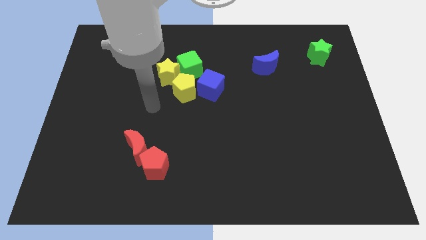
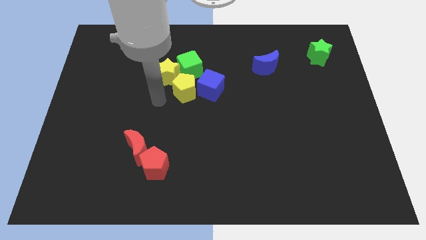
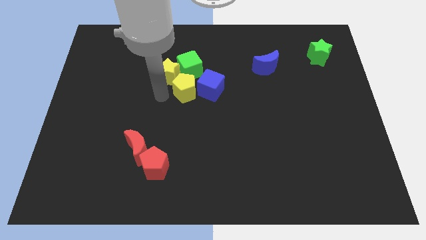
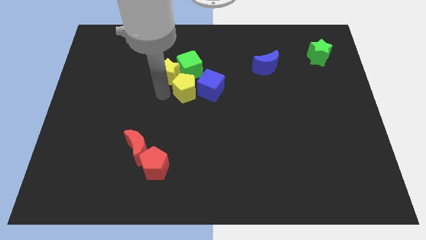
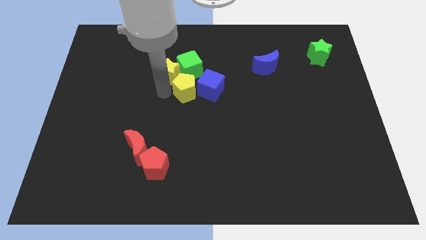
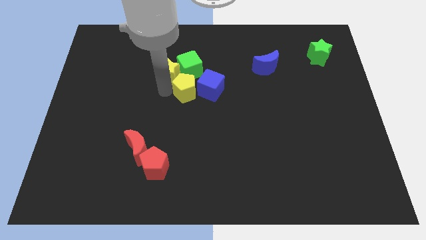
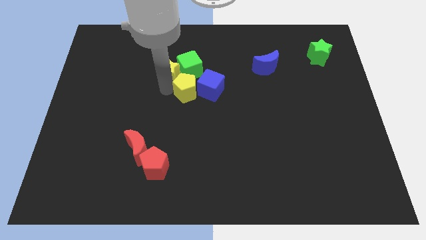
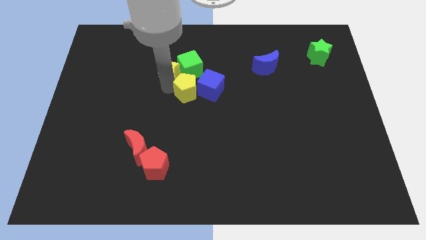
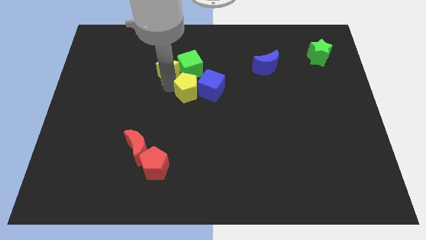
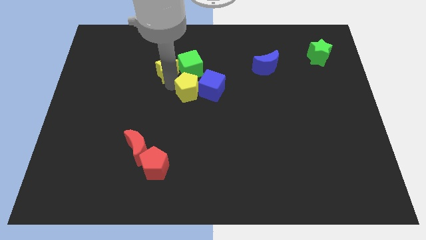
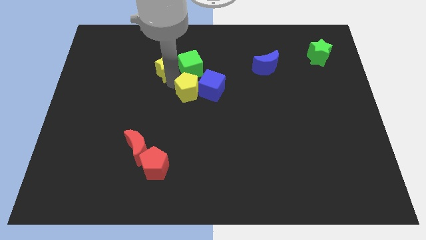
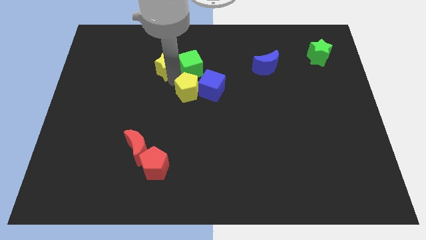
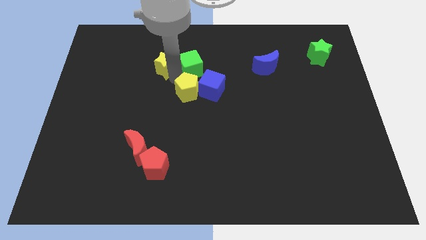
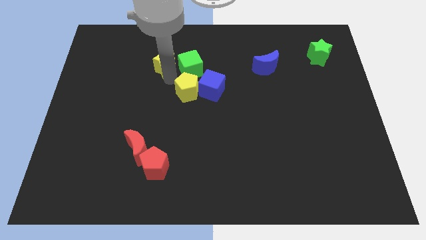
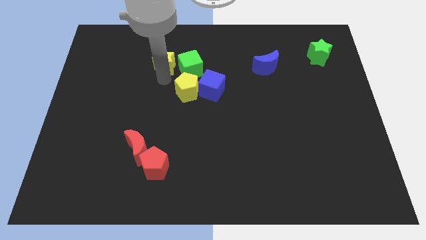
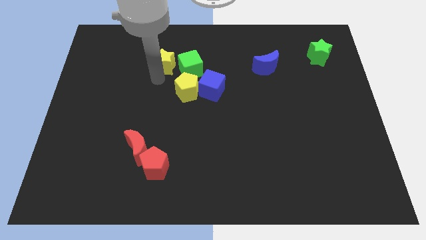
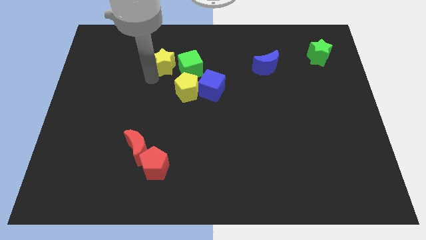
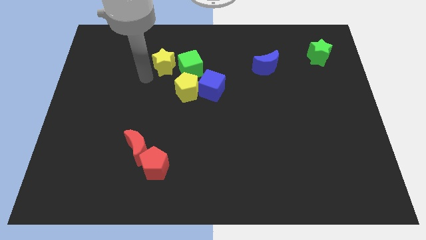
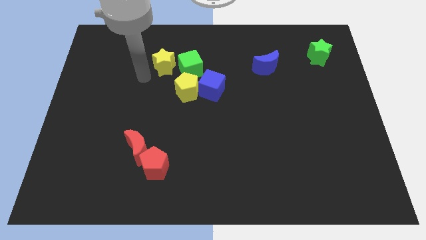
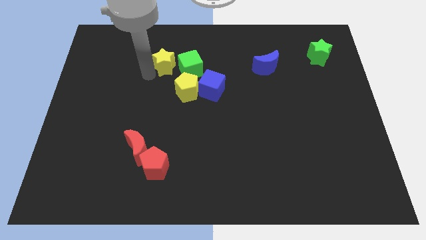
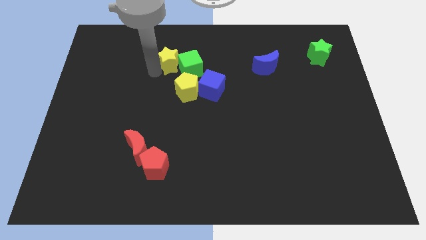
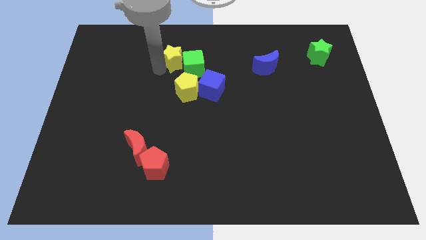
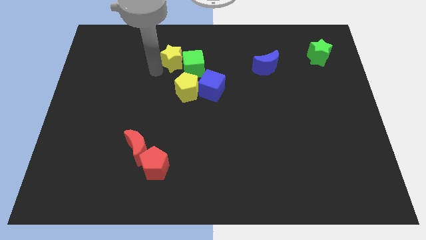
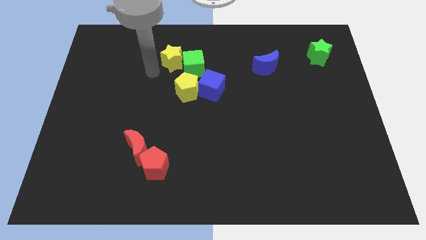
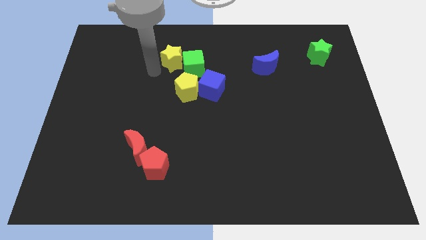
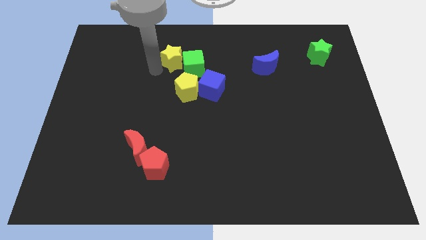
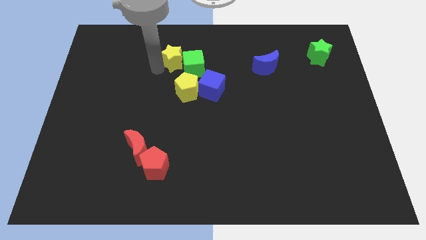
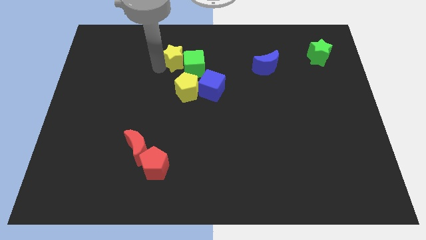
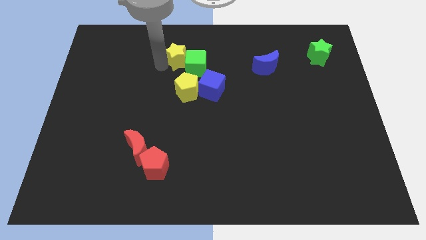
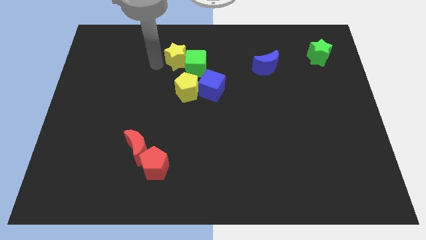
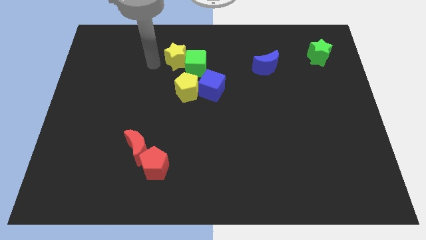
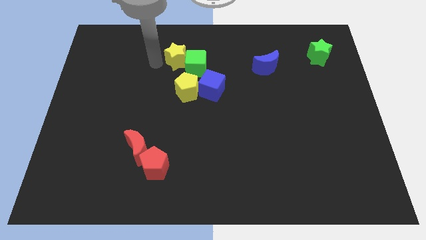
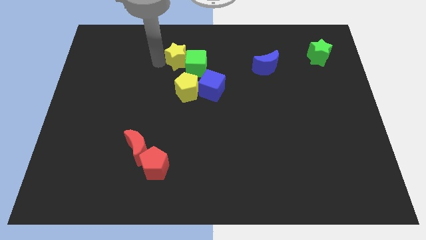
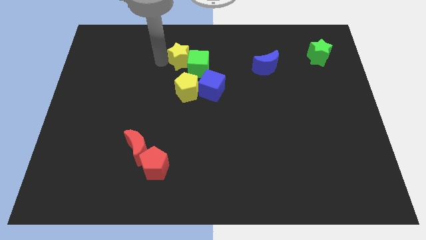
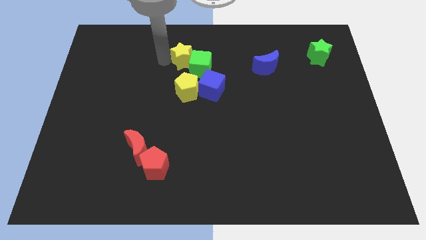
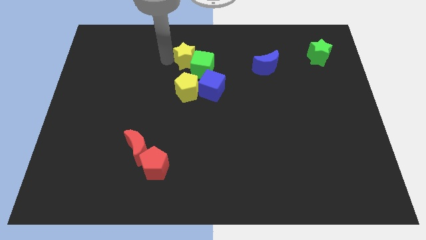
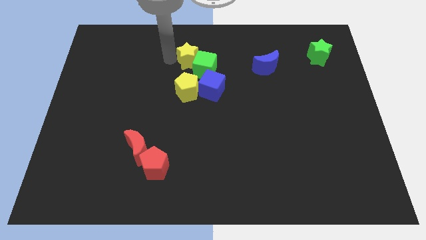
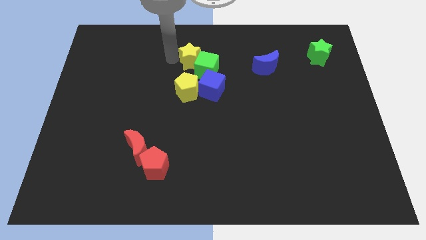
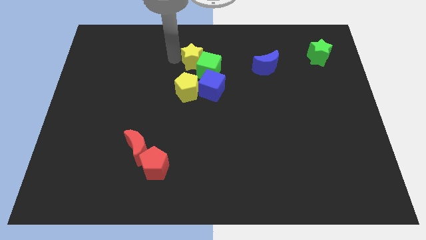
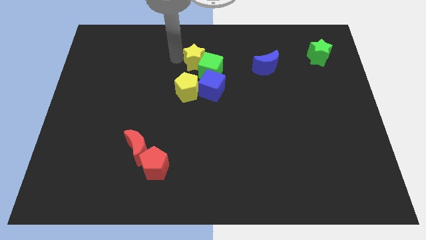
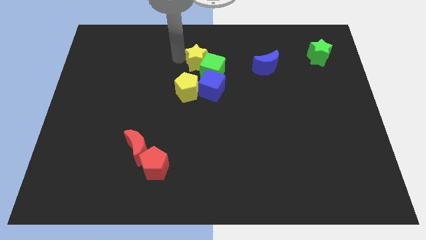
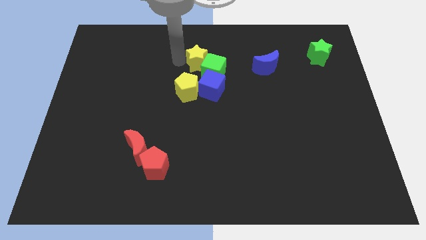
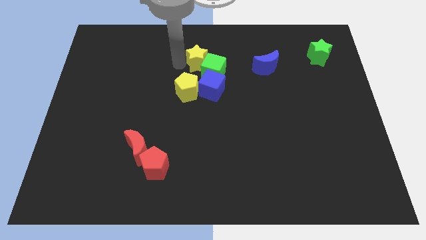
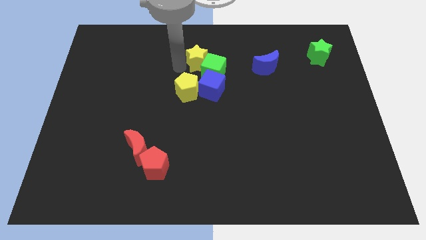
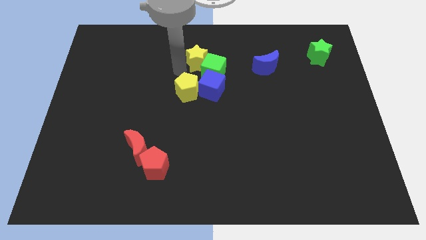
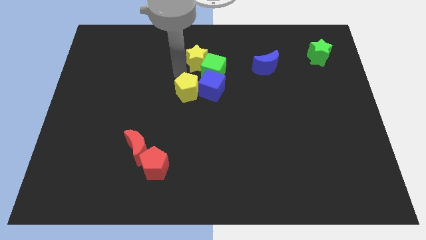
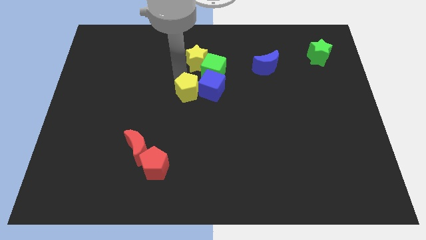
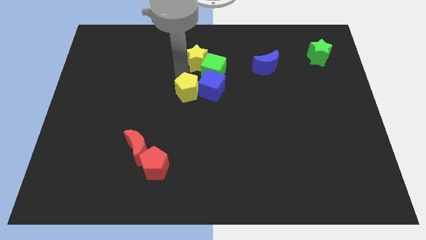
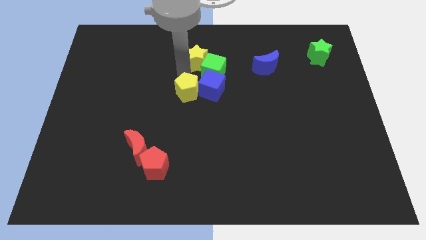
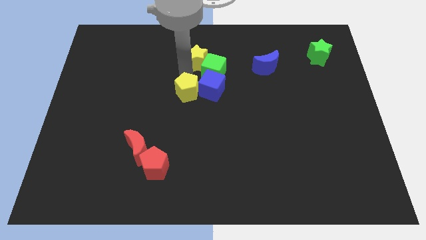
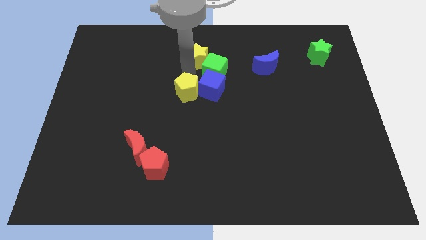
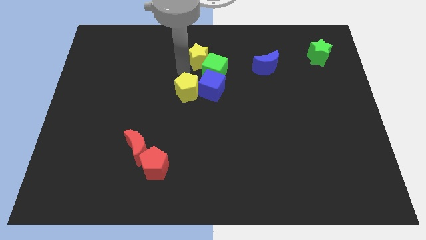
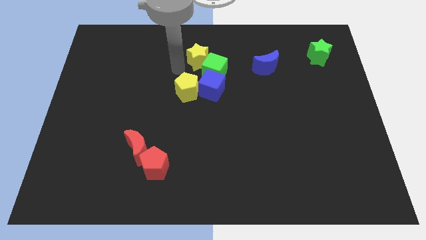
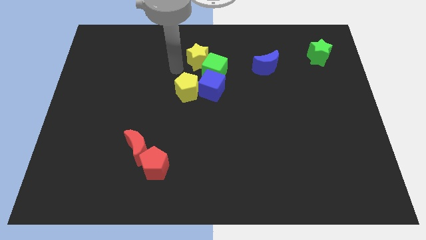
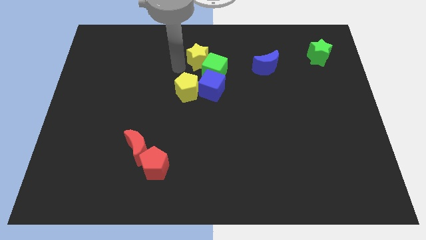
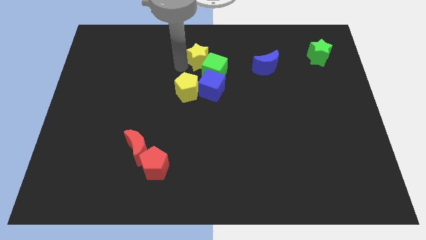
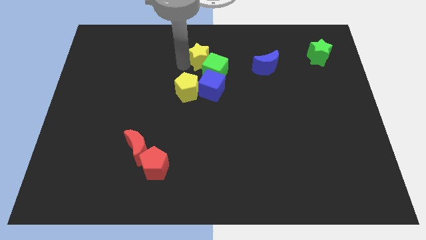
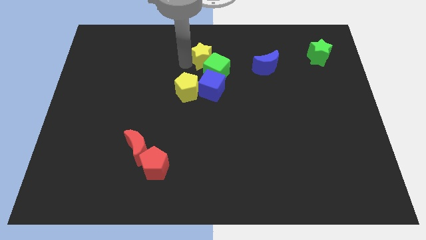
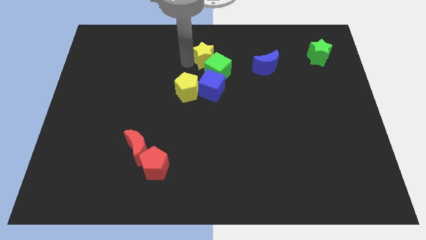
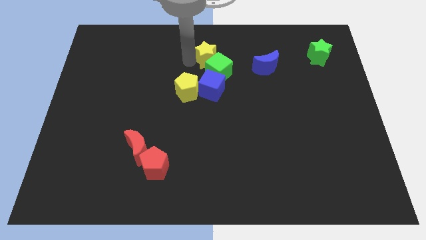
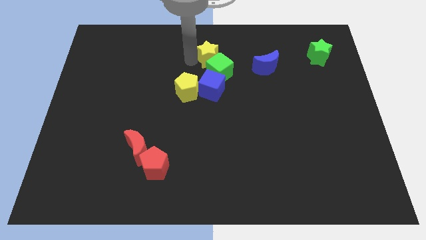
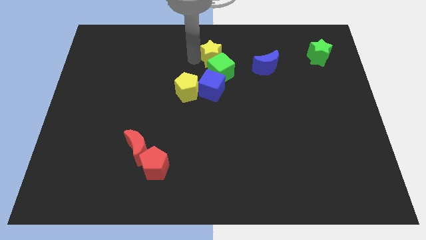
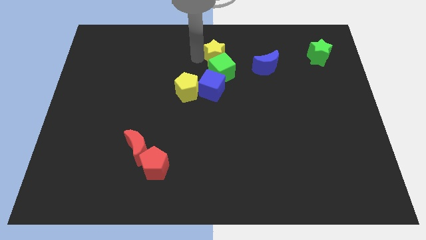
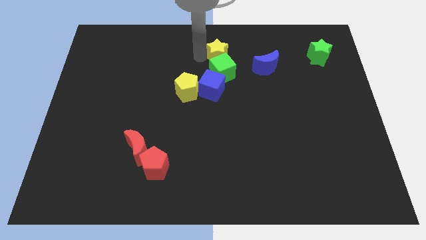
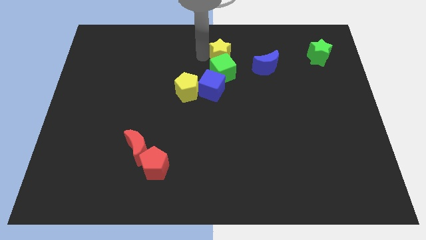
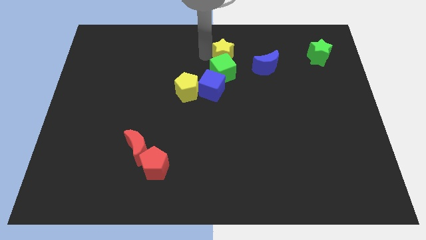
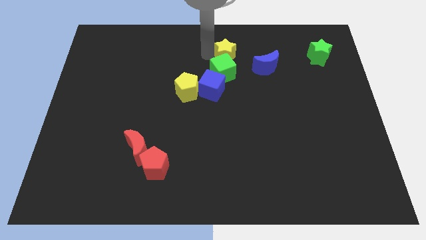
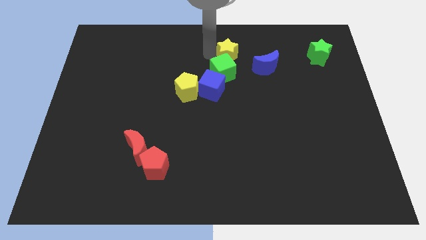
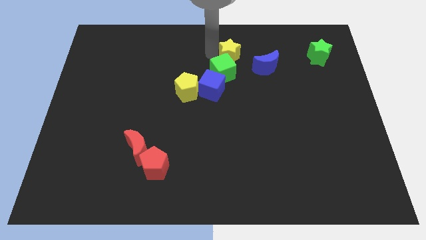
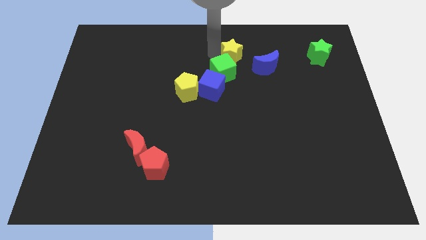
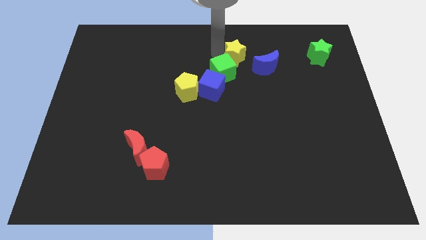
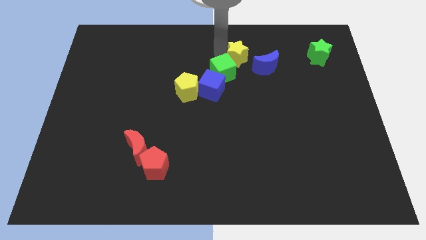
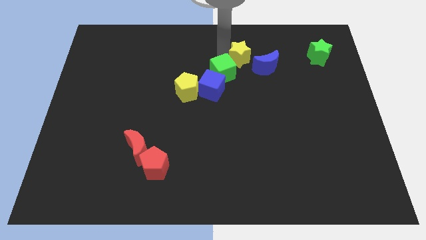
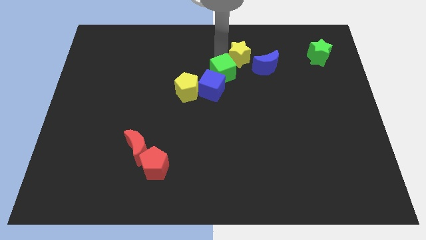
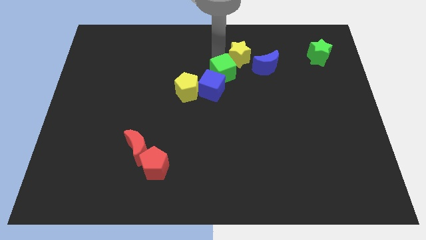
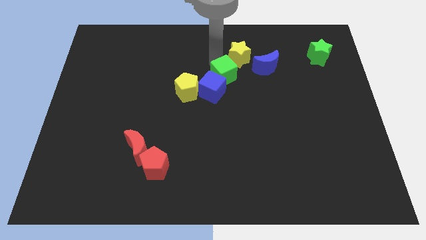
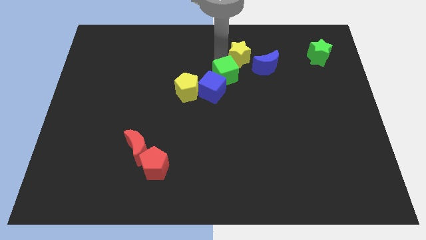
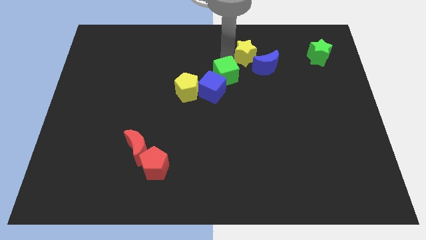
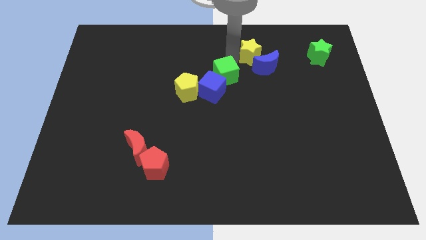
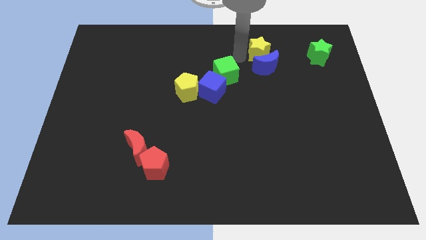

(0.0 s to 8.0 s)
move the yellow star just left of the green star
